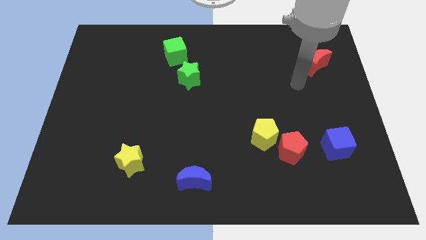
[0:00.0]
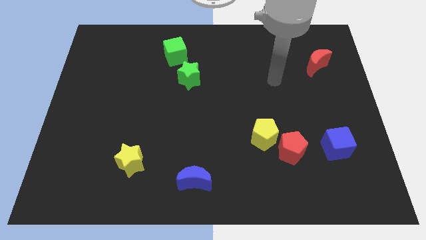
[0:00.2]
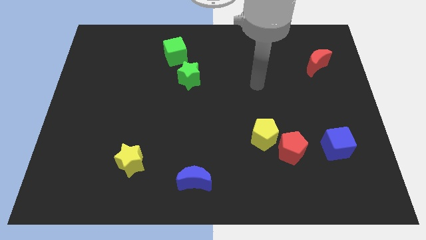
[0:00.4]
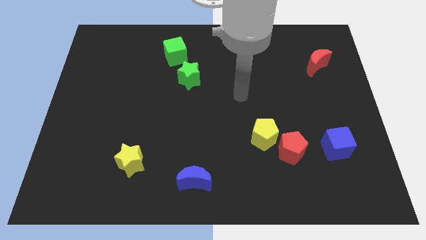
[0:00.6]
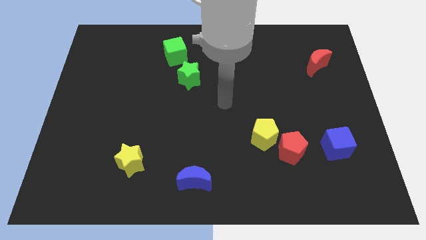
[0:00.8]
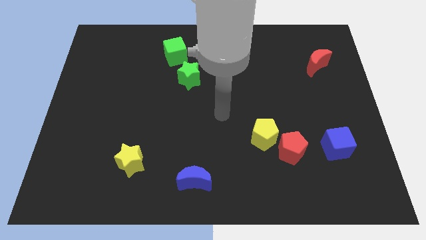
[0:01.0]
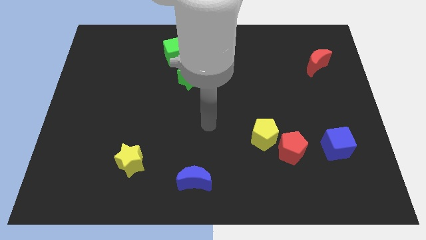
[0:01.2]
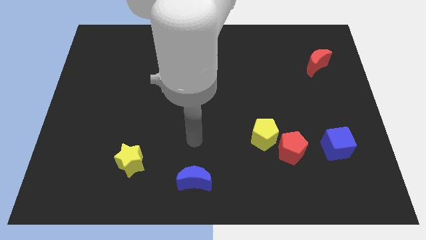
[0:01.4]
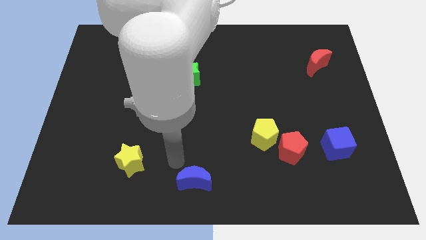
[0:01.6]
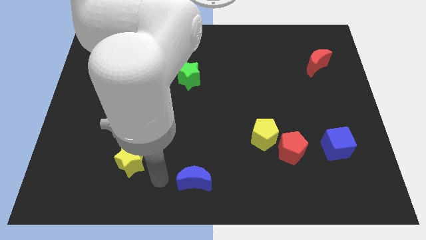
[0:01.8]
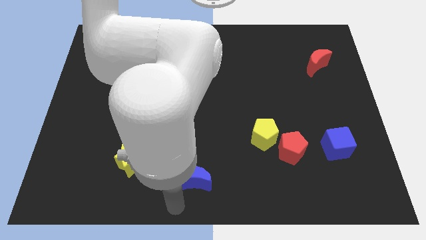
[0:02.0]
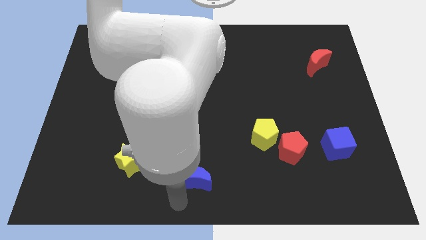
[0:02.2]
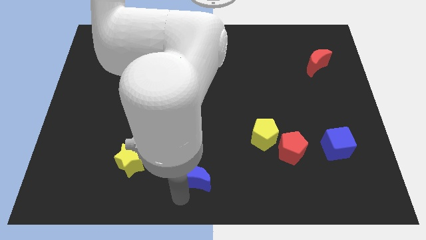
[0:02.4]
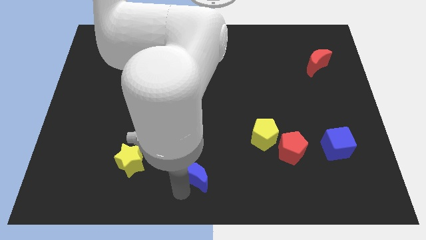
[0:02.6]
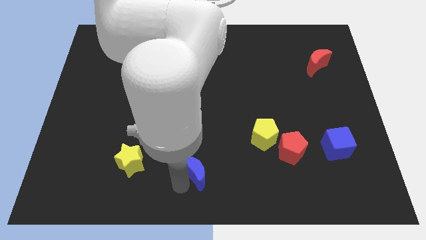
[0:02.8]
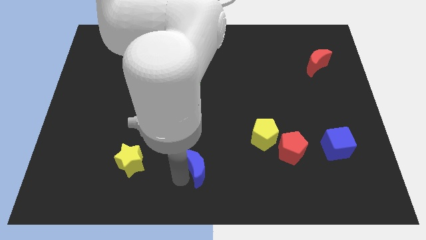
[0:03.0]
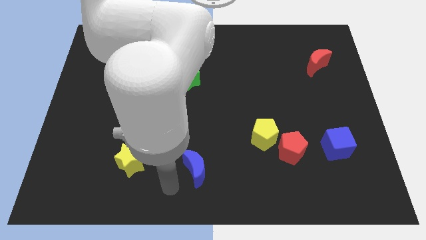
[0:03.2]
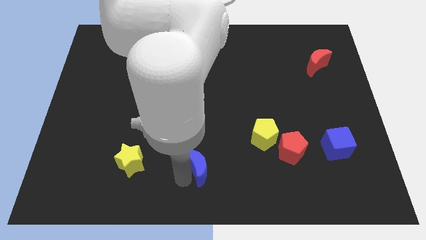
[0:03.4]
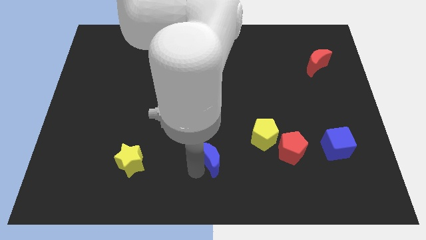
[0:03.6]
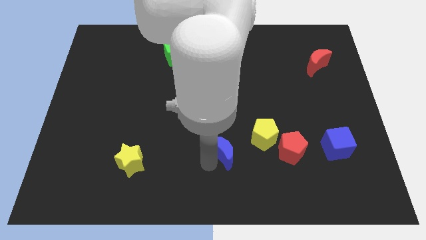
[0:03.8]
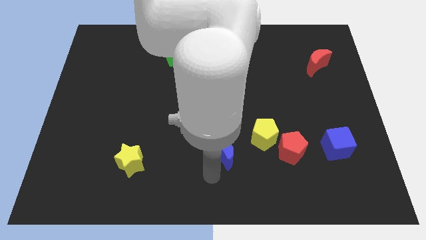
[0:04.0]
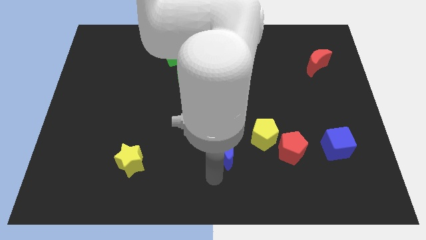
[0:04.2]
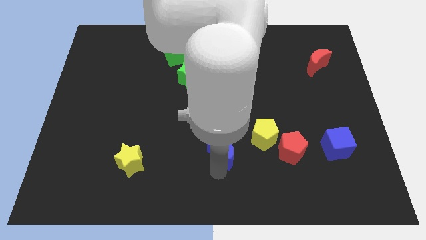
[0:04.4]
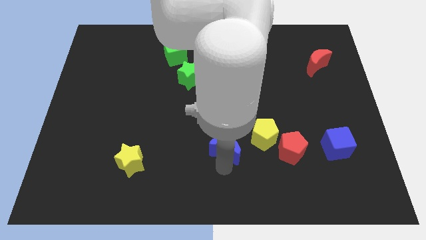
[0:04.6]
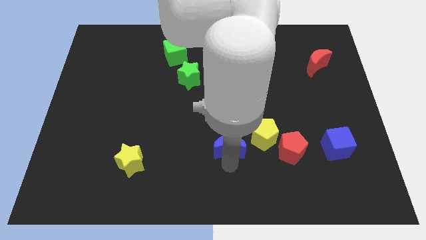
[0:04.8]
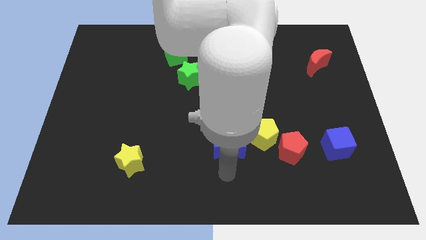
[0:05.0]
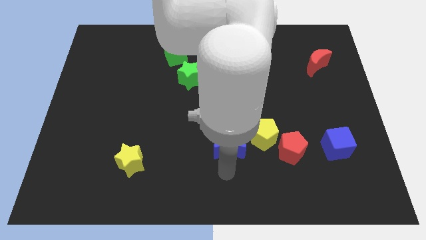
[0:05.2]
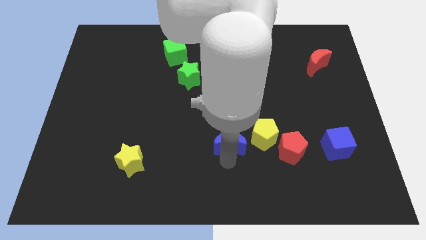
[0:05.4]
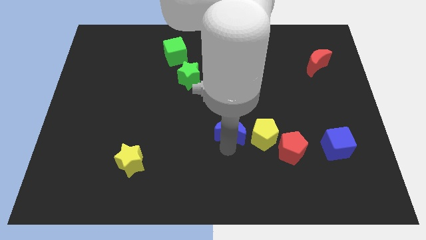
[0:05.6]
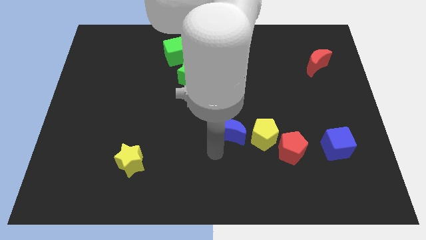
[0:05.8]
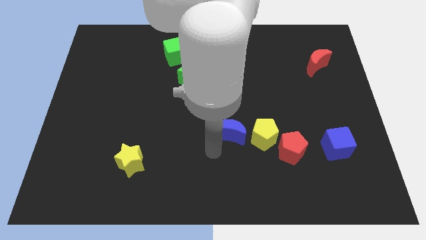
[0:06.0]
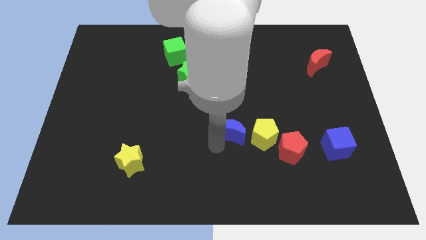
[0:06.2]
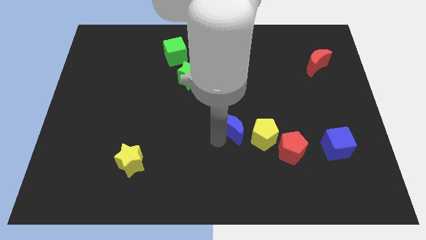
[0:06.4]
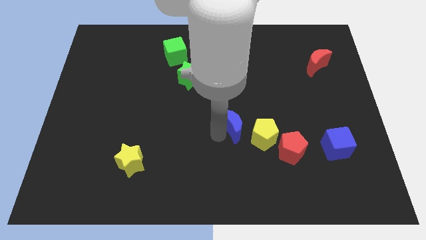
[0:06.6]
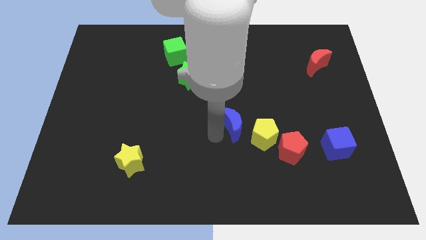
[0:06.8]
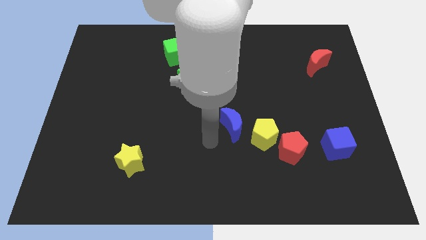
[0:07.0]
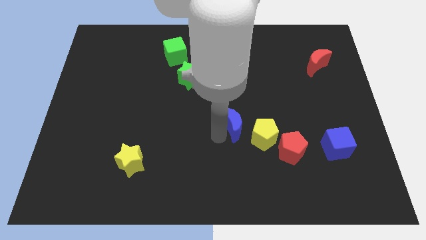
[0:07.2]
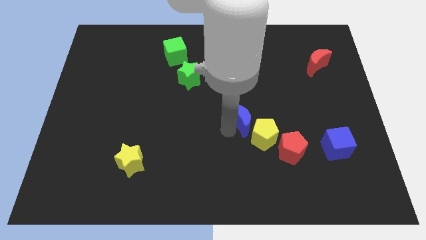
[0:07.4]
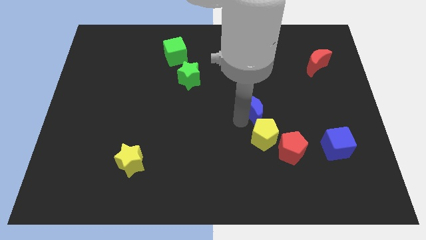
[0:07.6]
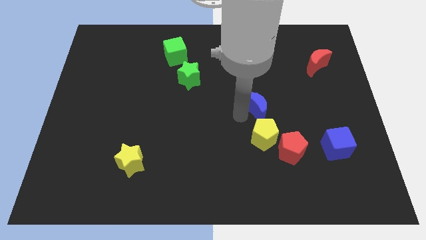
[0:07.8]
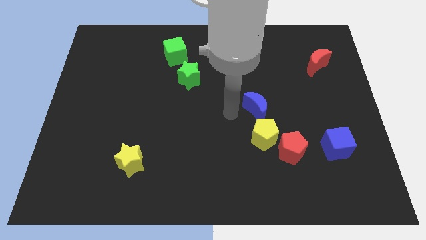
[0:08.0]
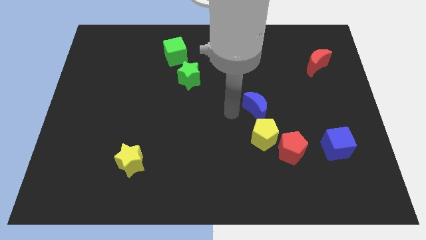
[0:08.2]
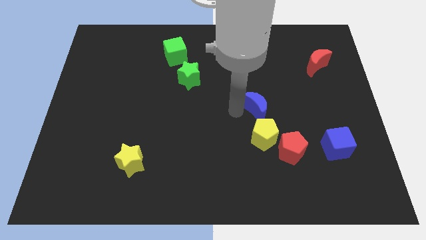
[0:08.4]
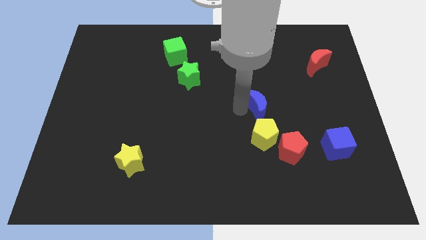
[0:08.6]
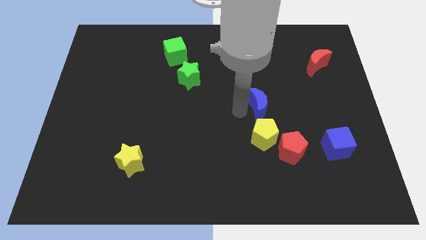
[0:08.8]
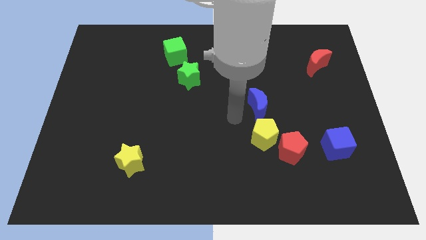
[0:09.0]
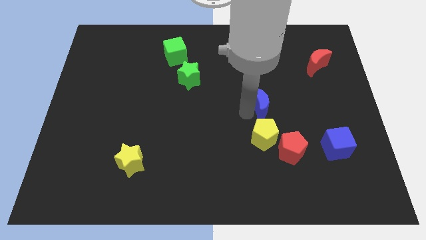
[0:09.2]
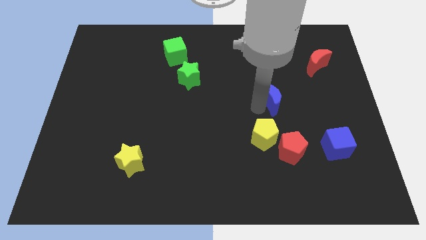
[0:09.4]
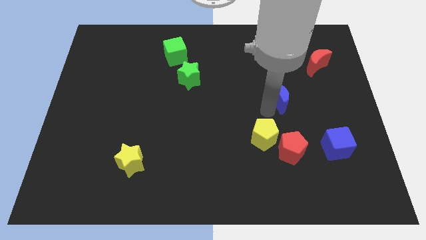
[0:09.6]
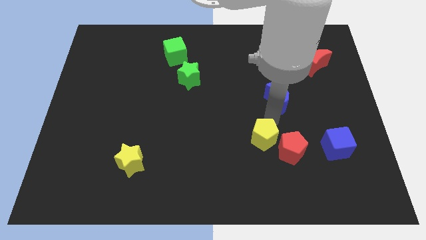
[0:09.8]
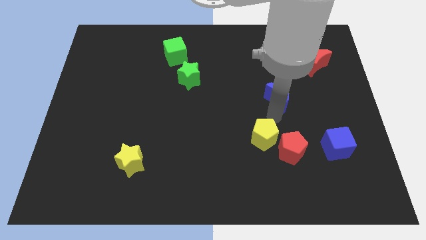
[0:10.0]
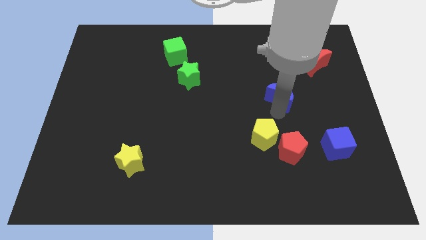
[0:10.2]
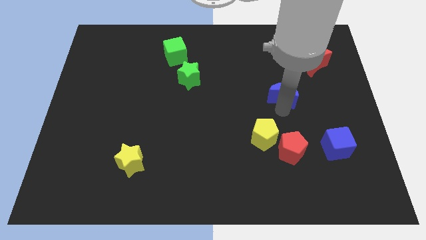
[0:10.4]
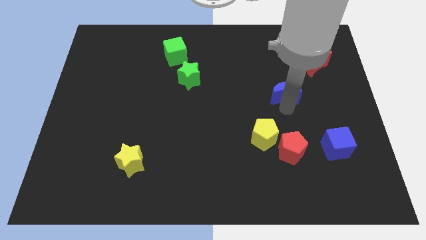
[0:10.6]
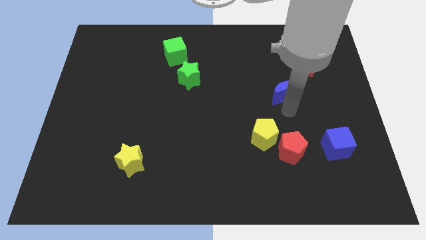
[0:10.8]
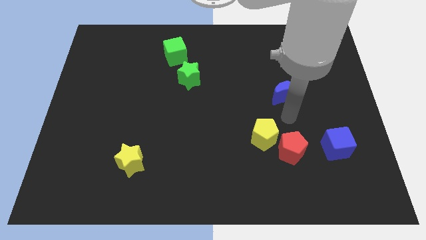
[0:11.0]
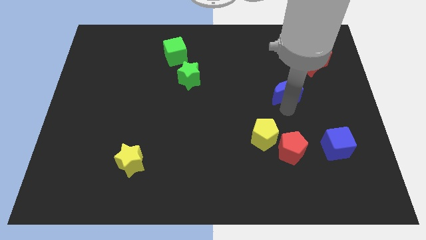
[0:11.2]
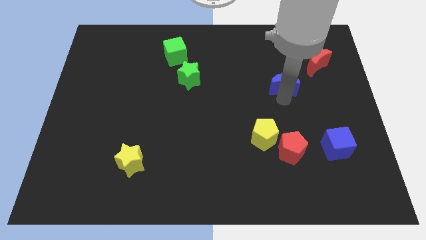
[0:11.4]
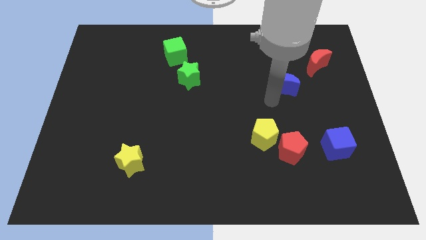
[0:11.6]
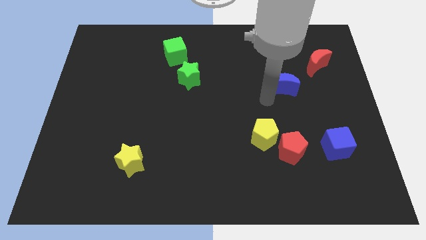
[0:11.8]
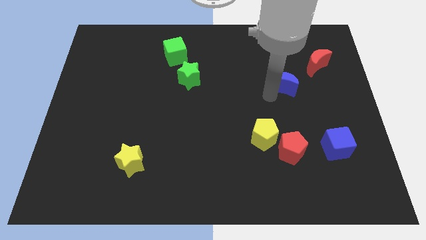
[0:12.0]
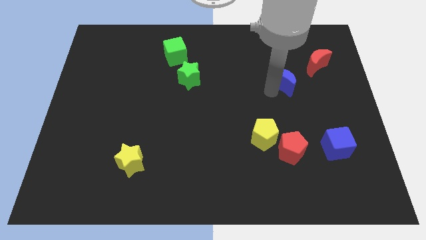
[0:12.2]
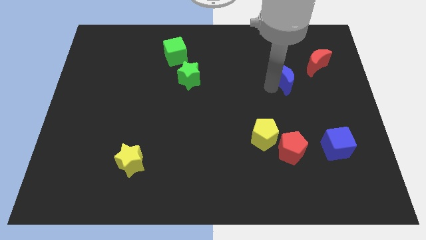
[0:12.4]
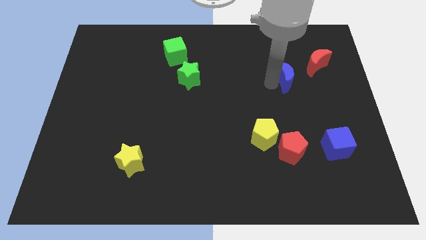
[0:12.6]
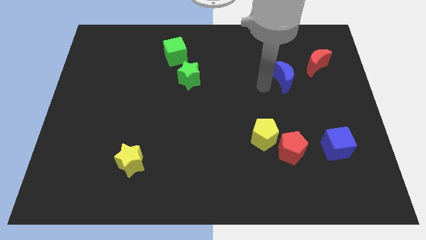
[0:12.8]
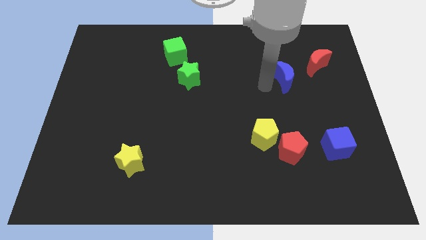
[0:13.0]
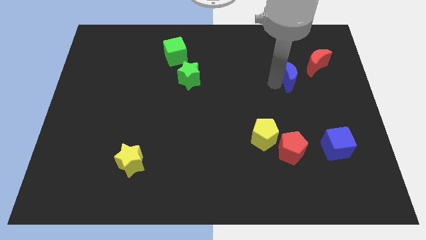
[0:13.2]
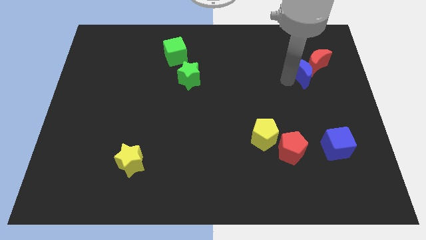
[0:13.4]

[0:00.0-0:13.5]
put the blue moon to the red moon

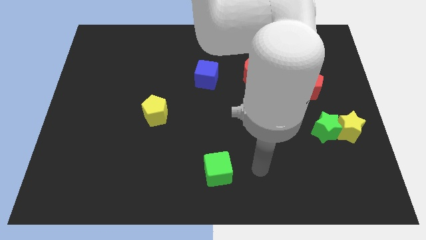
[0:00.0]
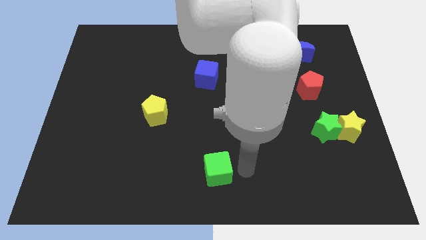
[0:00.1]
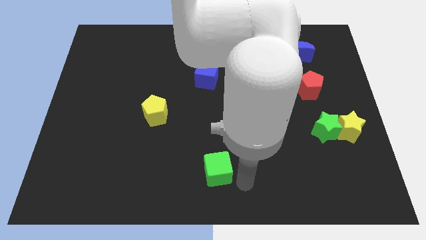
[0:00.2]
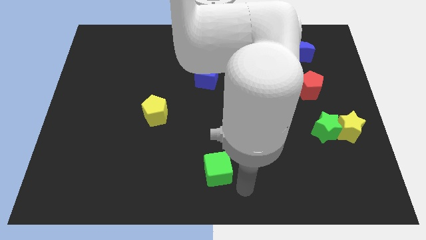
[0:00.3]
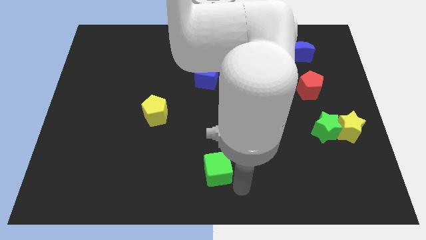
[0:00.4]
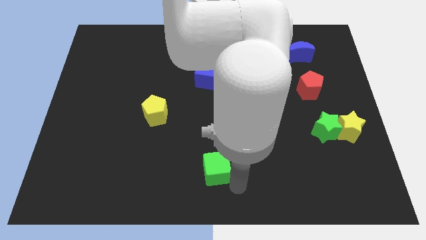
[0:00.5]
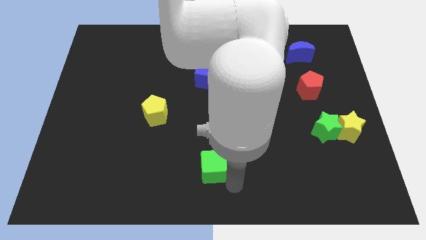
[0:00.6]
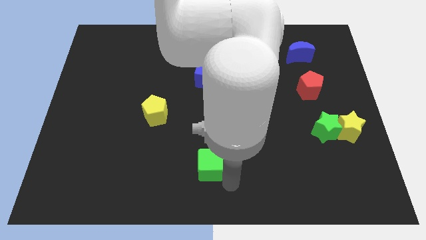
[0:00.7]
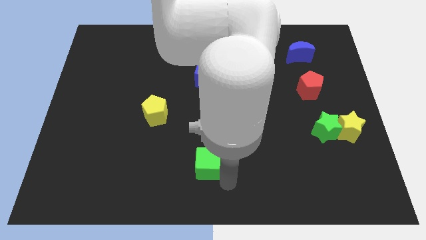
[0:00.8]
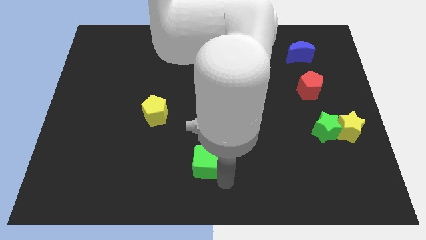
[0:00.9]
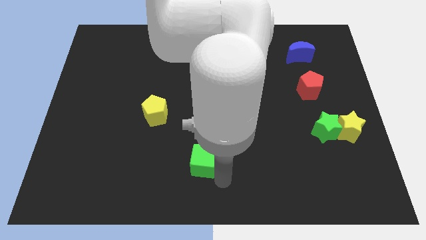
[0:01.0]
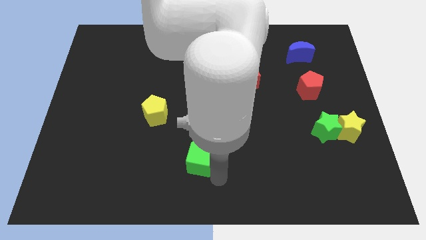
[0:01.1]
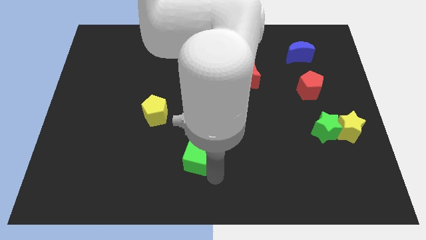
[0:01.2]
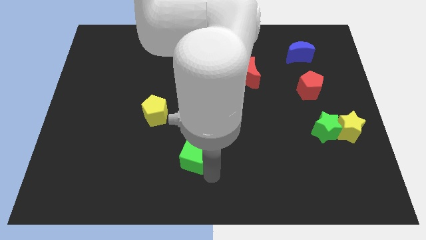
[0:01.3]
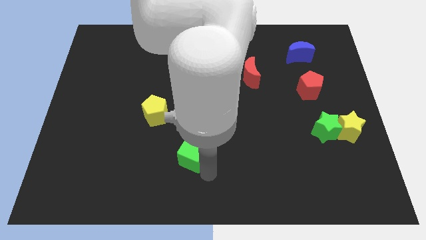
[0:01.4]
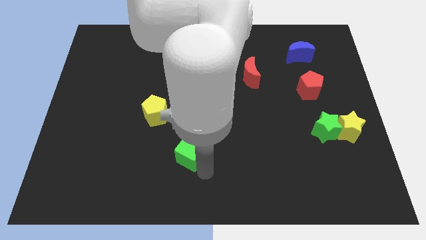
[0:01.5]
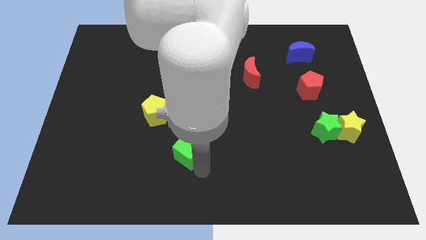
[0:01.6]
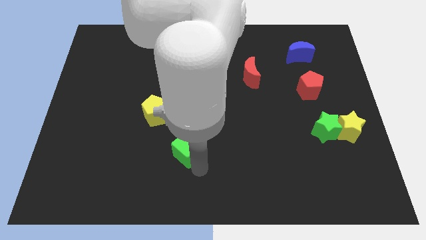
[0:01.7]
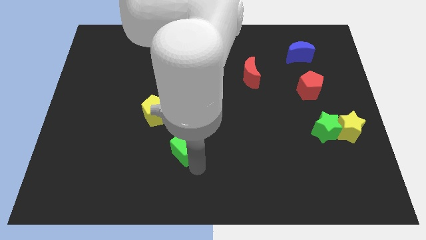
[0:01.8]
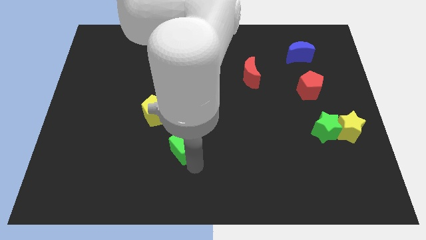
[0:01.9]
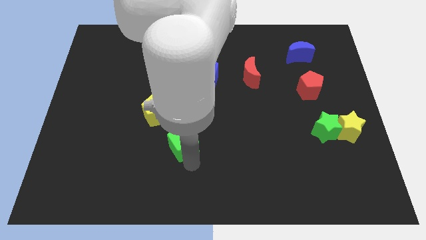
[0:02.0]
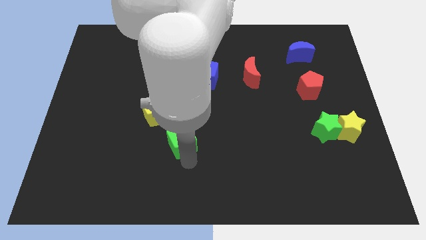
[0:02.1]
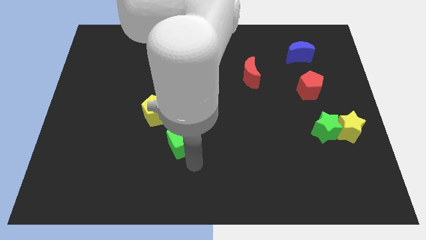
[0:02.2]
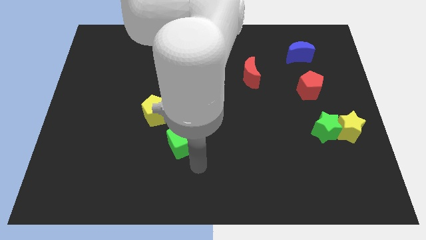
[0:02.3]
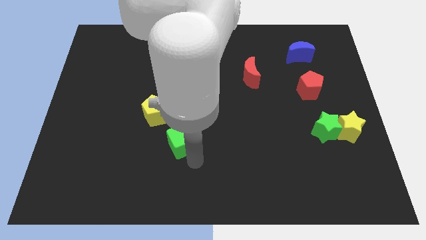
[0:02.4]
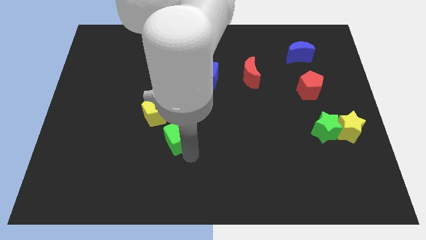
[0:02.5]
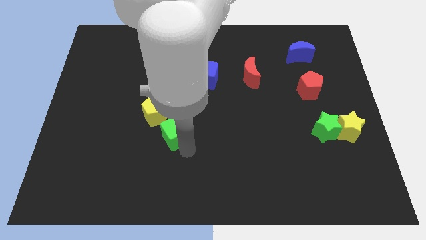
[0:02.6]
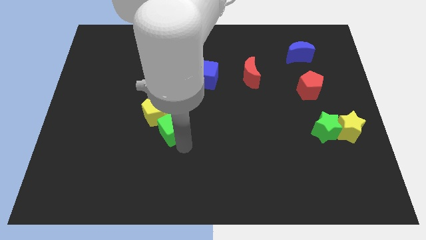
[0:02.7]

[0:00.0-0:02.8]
put the green cube close to the yellow pentagon
